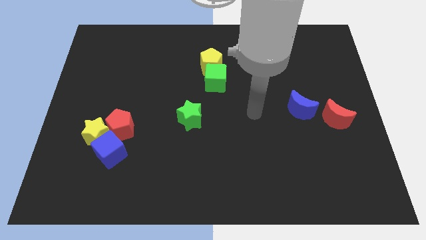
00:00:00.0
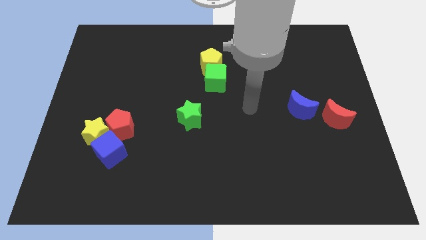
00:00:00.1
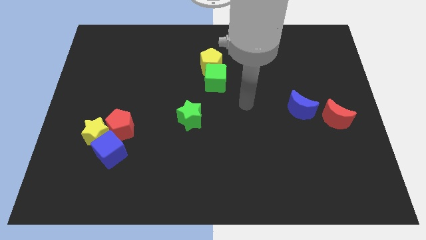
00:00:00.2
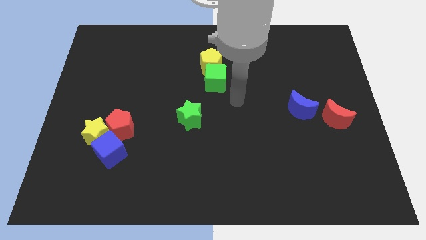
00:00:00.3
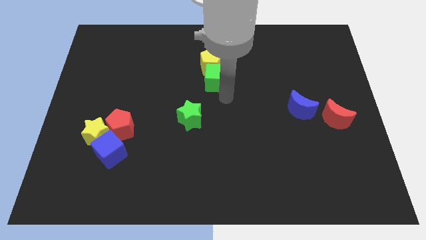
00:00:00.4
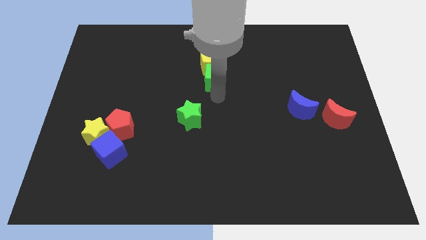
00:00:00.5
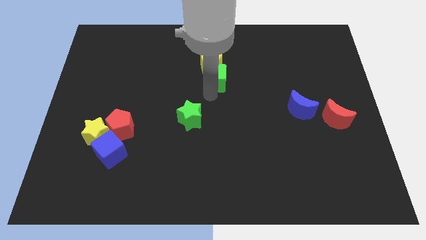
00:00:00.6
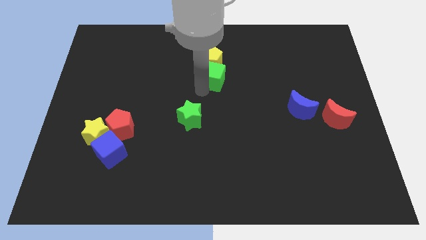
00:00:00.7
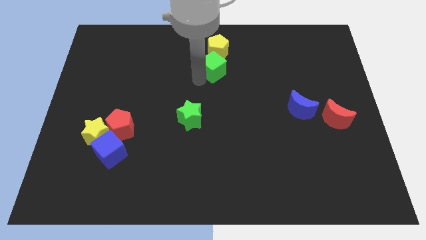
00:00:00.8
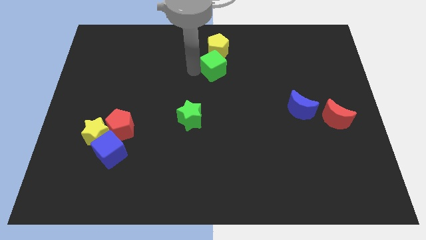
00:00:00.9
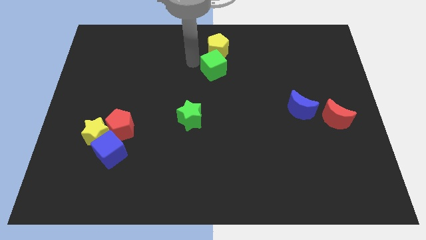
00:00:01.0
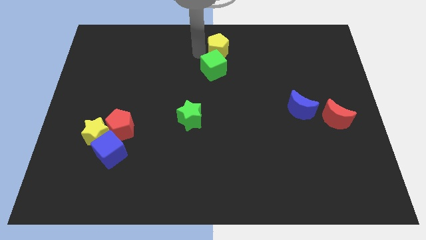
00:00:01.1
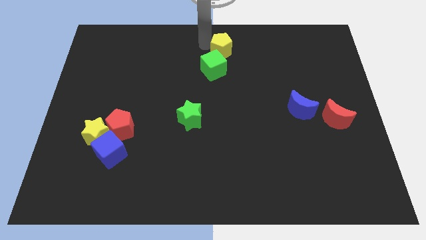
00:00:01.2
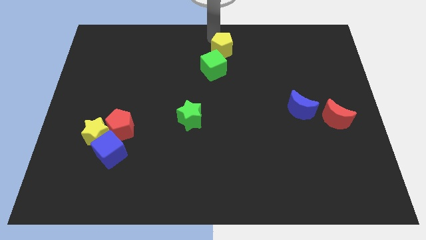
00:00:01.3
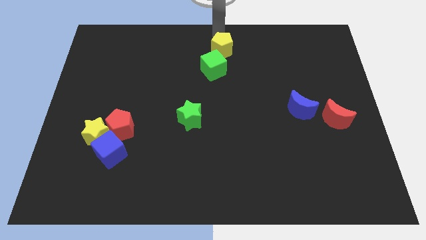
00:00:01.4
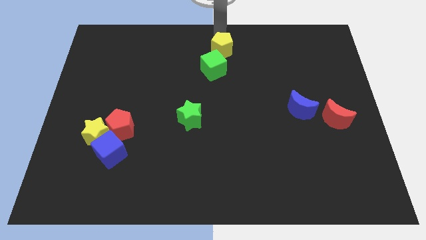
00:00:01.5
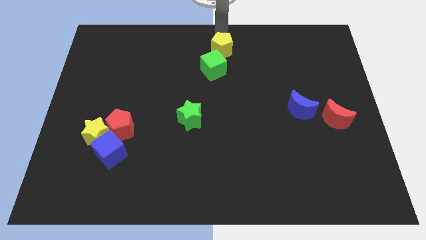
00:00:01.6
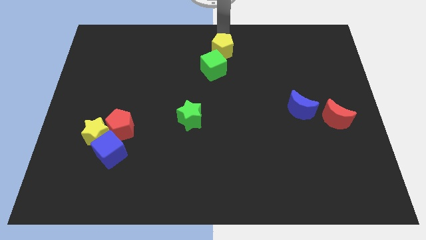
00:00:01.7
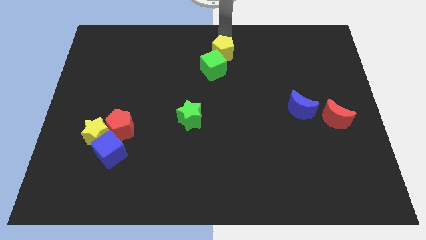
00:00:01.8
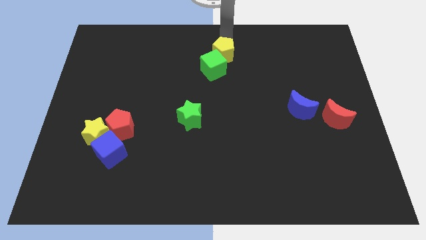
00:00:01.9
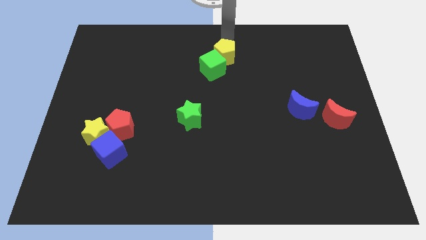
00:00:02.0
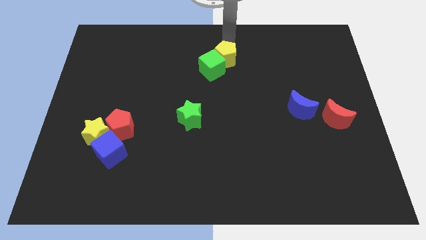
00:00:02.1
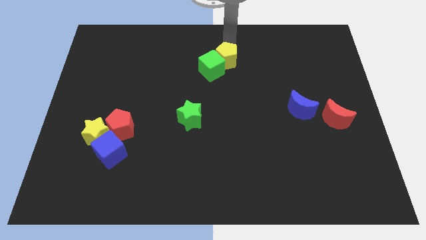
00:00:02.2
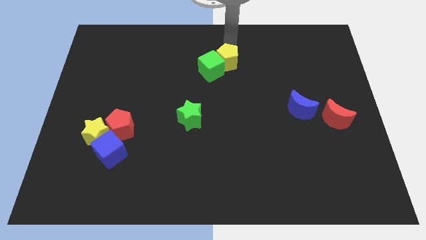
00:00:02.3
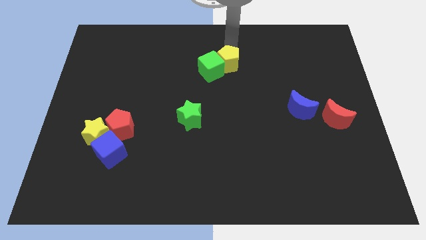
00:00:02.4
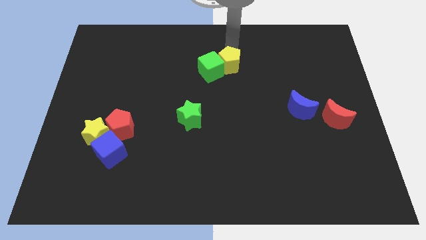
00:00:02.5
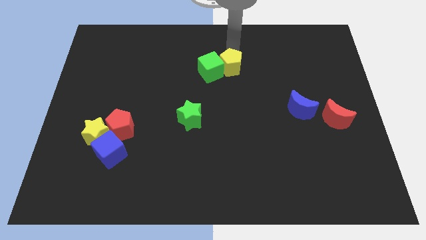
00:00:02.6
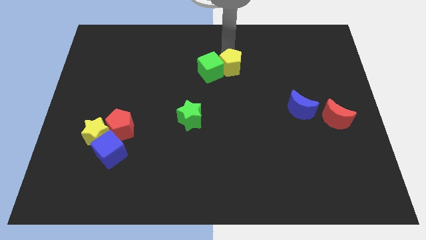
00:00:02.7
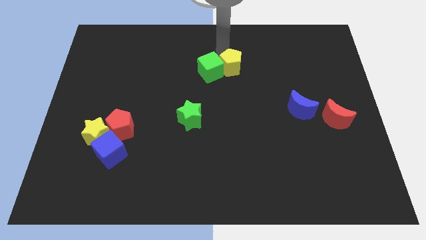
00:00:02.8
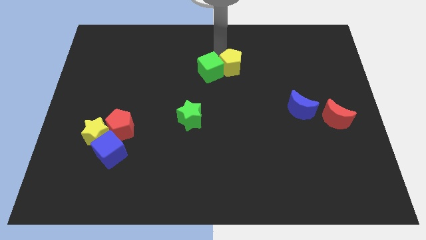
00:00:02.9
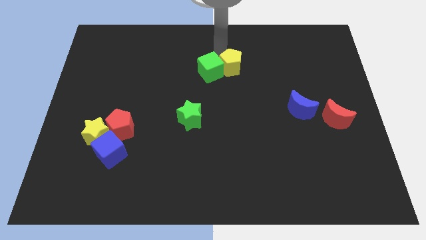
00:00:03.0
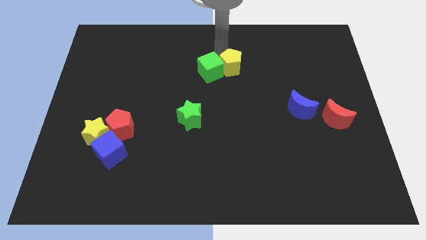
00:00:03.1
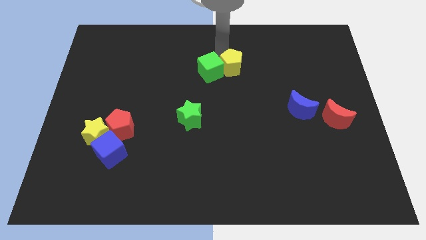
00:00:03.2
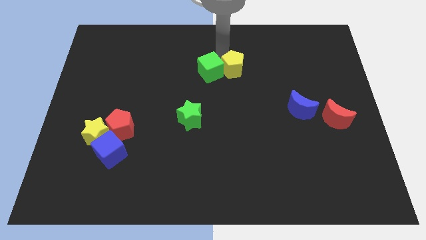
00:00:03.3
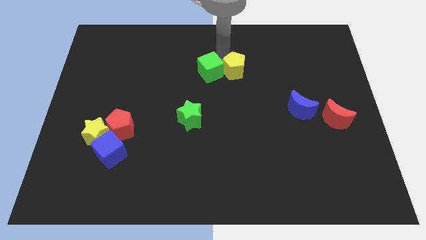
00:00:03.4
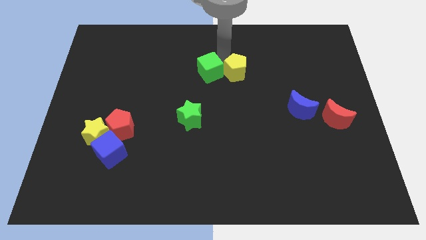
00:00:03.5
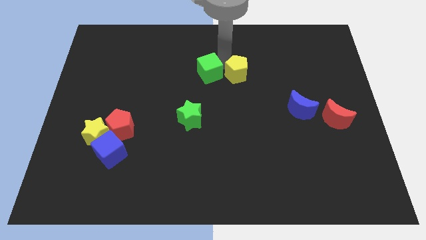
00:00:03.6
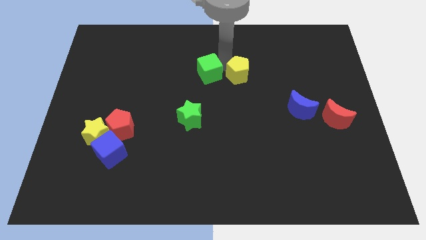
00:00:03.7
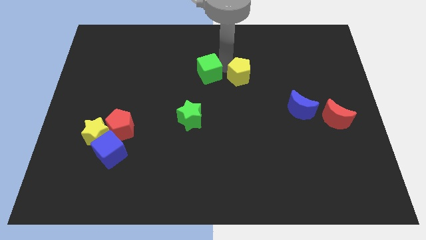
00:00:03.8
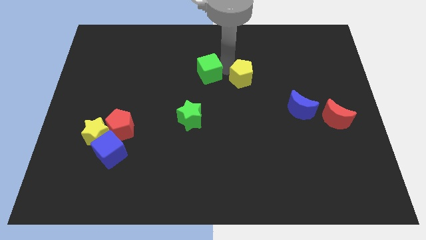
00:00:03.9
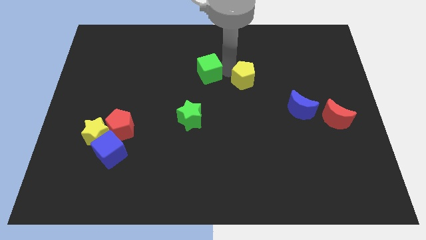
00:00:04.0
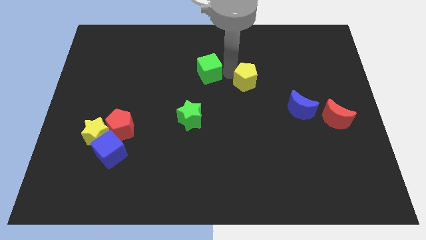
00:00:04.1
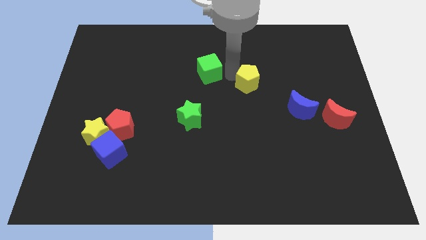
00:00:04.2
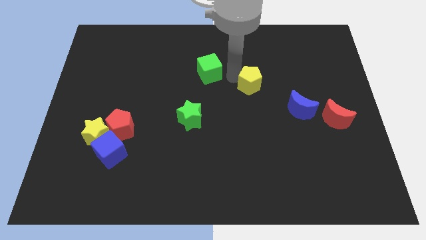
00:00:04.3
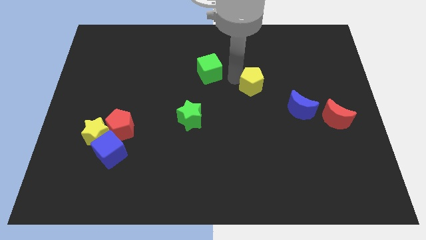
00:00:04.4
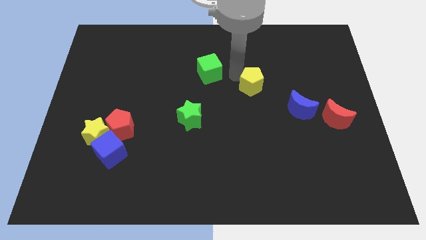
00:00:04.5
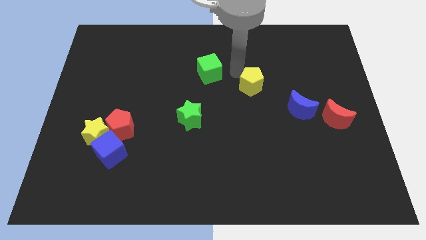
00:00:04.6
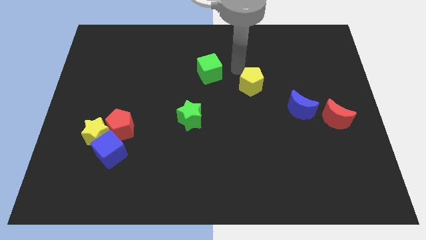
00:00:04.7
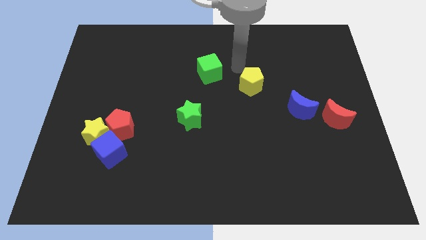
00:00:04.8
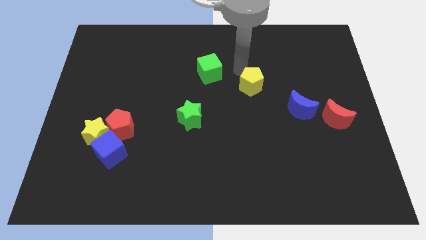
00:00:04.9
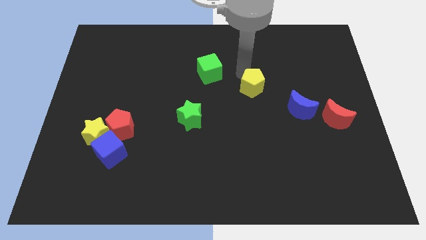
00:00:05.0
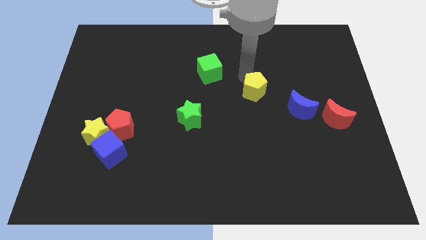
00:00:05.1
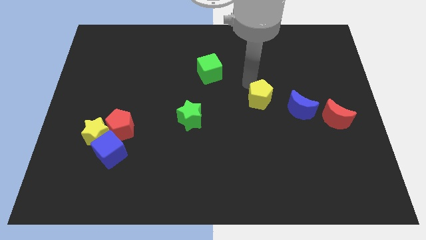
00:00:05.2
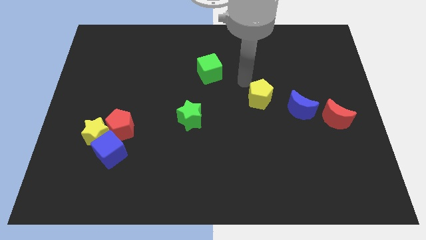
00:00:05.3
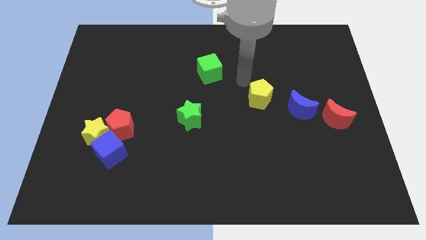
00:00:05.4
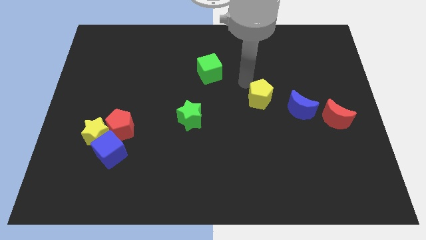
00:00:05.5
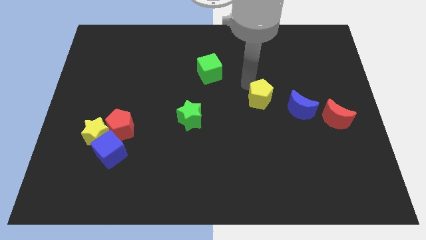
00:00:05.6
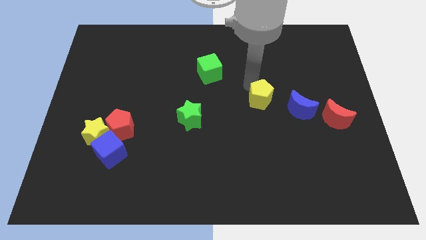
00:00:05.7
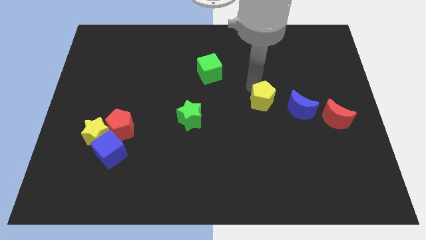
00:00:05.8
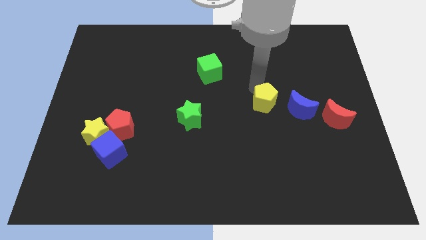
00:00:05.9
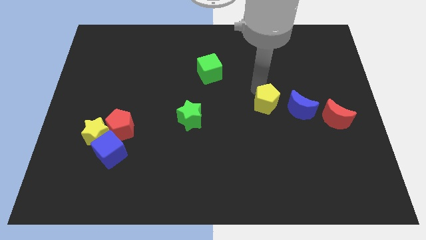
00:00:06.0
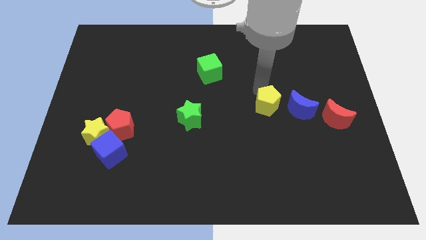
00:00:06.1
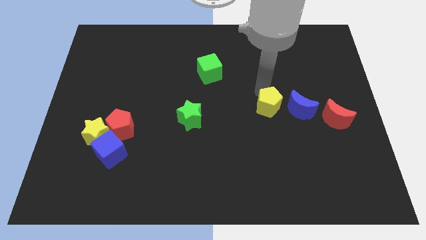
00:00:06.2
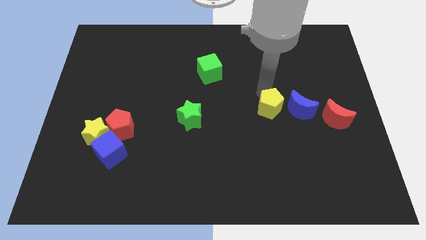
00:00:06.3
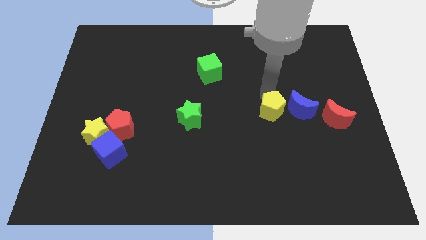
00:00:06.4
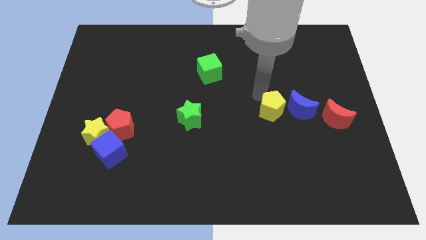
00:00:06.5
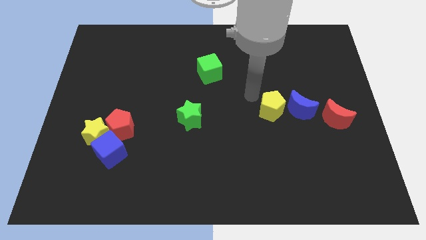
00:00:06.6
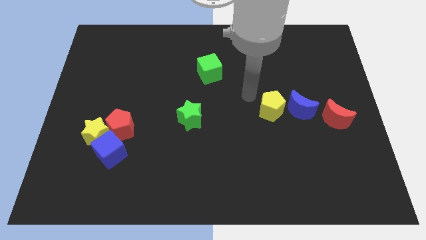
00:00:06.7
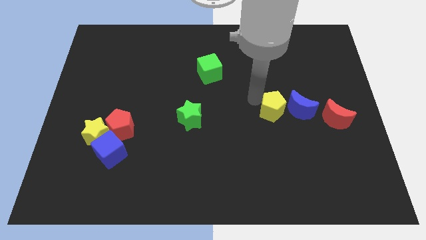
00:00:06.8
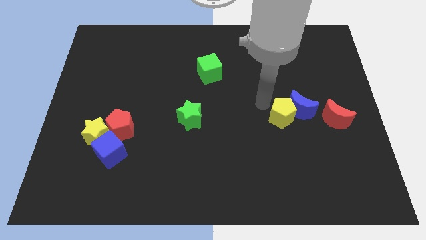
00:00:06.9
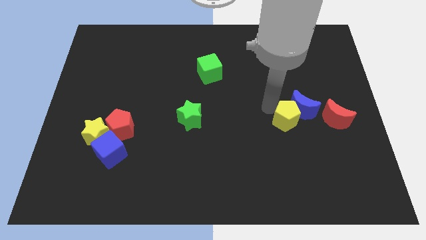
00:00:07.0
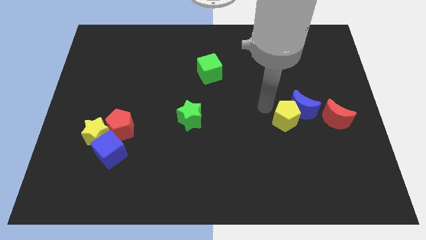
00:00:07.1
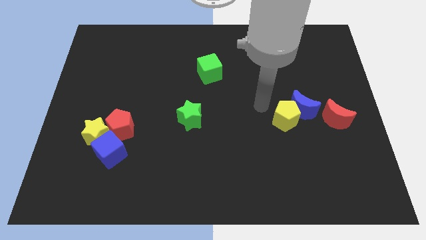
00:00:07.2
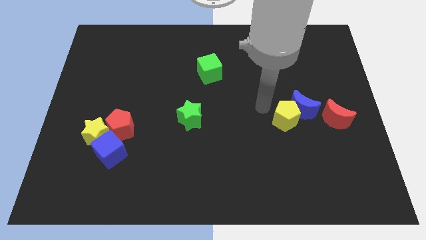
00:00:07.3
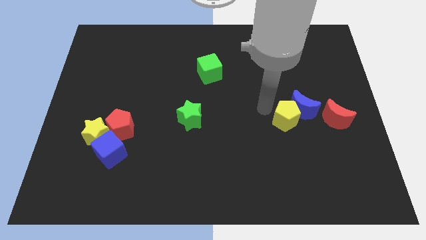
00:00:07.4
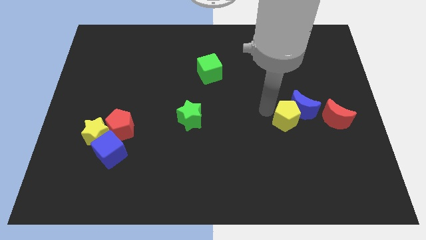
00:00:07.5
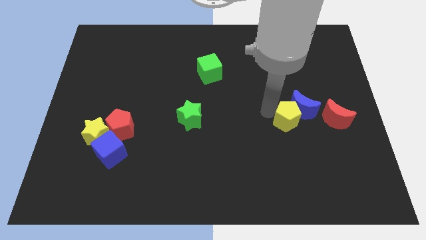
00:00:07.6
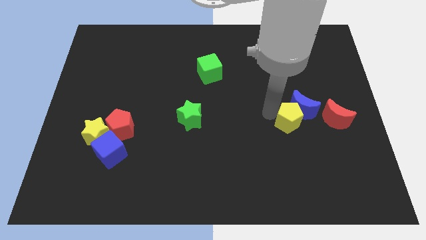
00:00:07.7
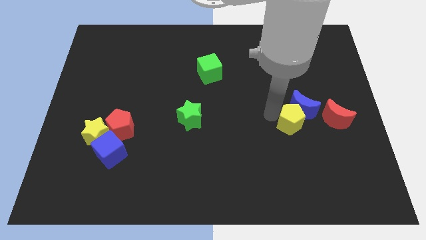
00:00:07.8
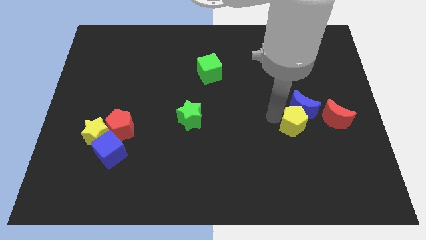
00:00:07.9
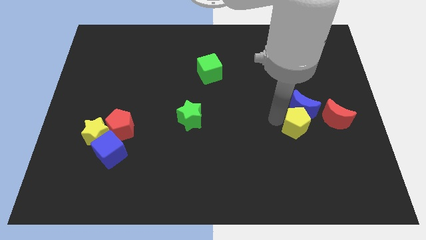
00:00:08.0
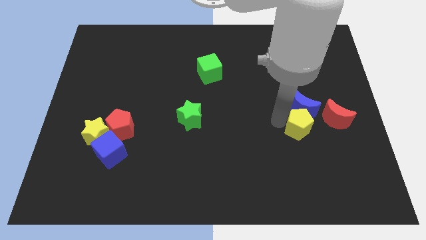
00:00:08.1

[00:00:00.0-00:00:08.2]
push the yellow pentagon diagonally down and to the left of the red moon
